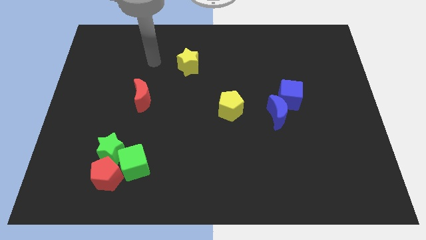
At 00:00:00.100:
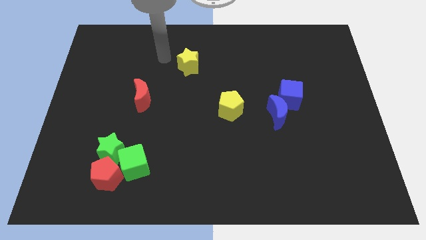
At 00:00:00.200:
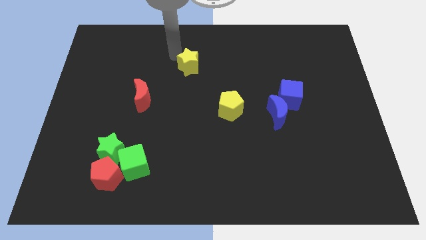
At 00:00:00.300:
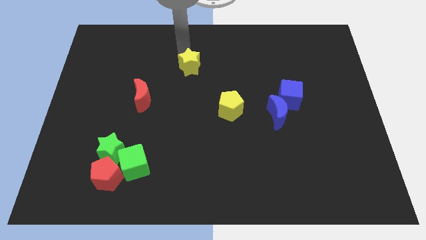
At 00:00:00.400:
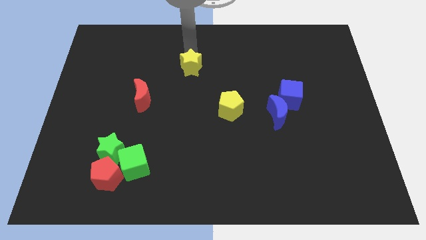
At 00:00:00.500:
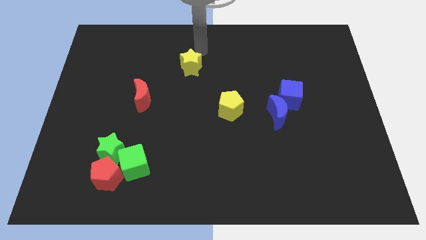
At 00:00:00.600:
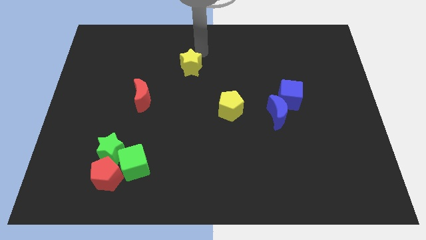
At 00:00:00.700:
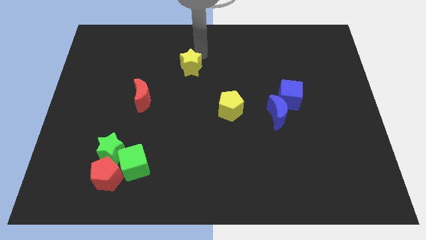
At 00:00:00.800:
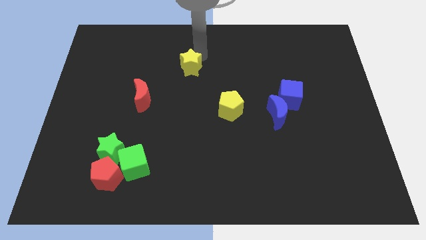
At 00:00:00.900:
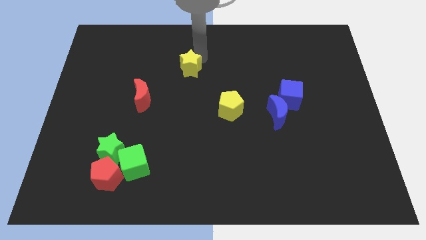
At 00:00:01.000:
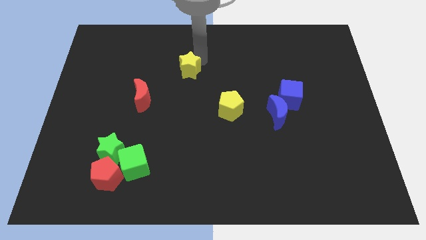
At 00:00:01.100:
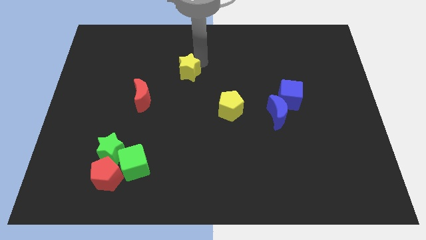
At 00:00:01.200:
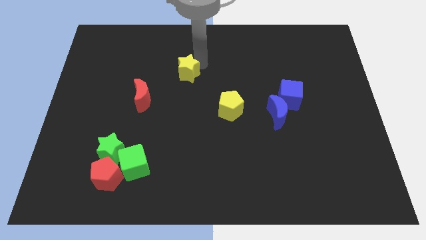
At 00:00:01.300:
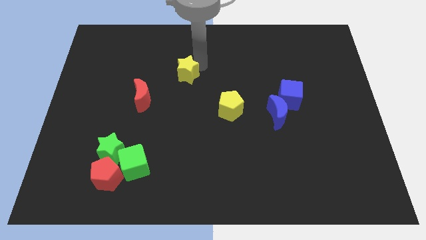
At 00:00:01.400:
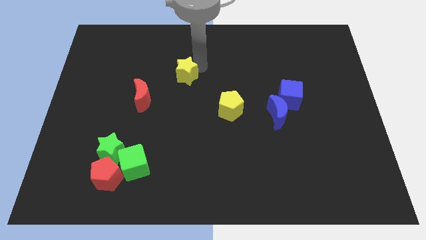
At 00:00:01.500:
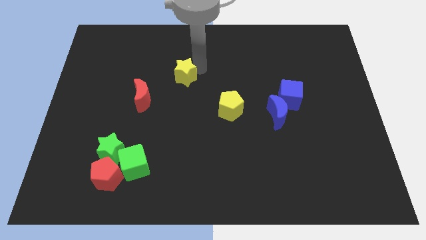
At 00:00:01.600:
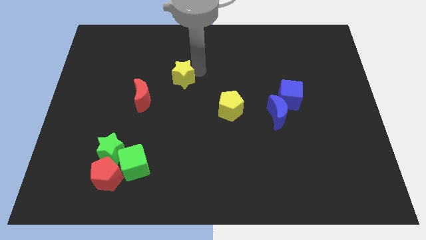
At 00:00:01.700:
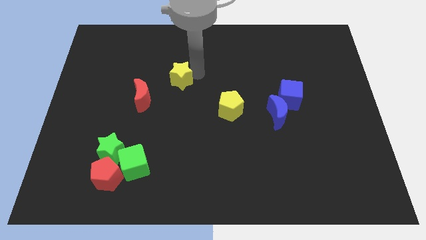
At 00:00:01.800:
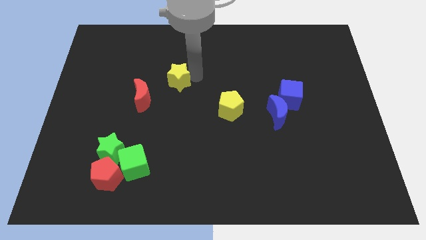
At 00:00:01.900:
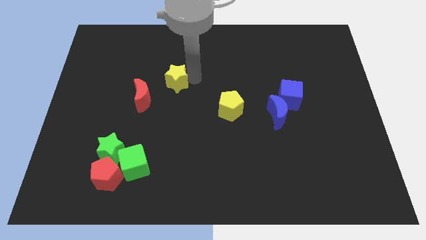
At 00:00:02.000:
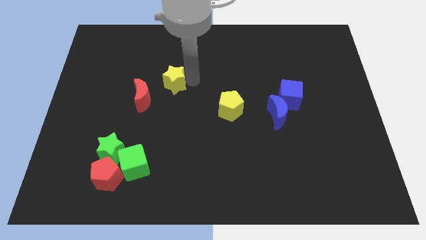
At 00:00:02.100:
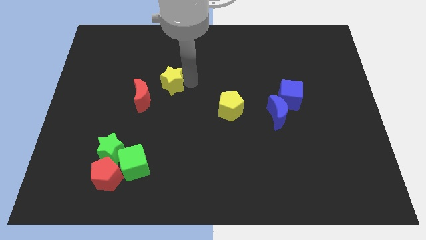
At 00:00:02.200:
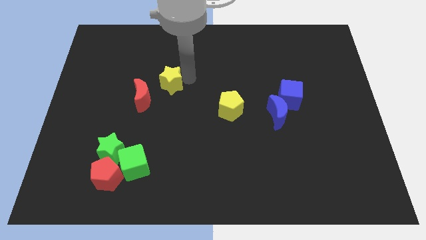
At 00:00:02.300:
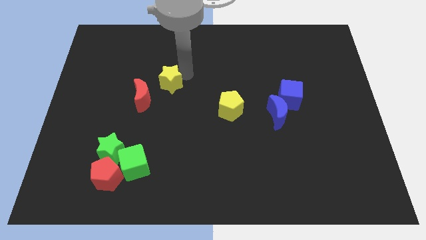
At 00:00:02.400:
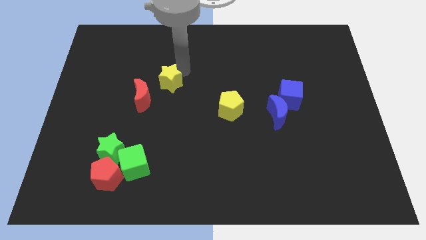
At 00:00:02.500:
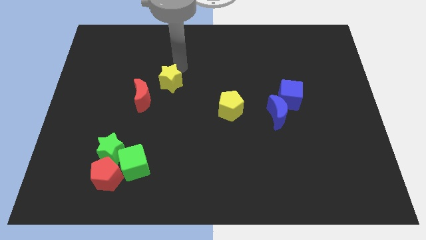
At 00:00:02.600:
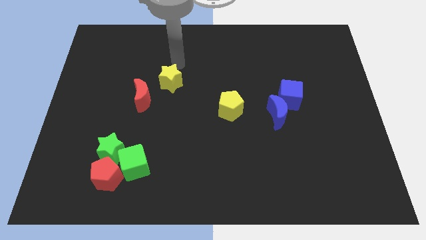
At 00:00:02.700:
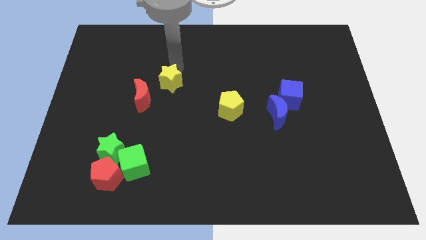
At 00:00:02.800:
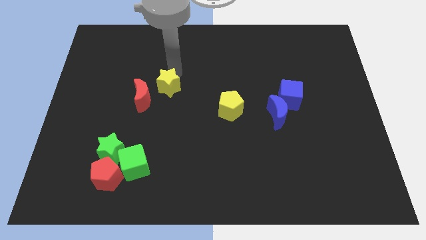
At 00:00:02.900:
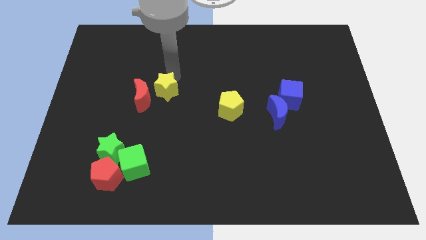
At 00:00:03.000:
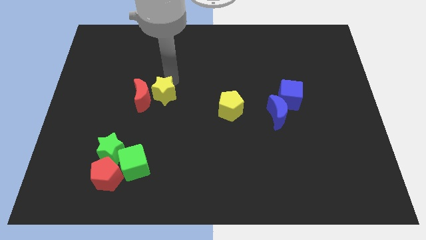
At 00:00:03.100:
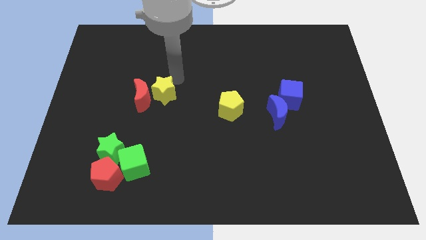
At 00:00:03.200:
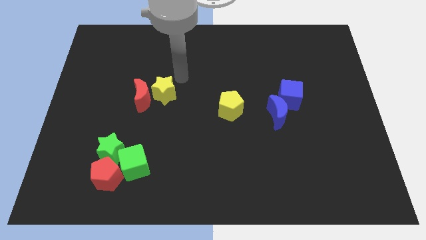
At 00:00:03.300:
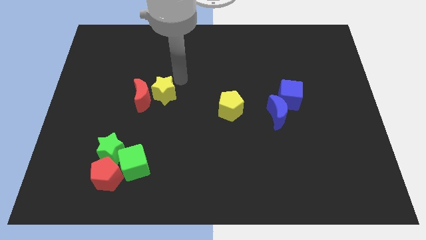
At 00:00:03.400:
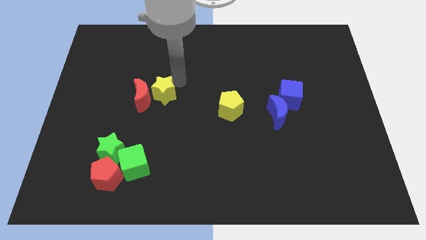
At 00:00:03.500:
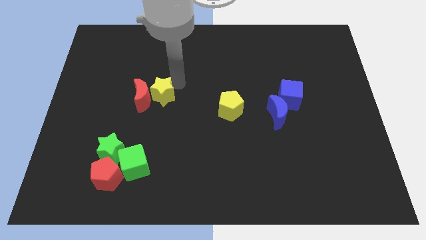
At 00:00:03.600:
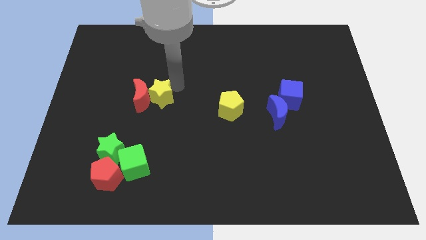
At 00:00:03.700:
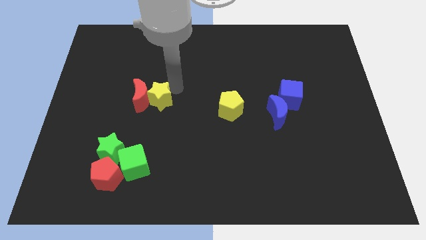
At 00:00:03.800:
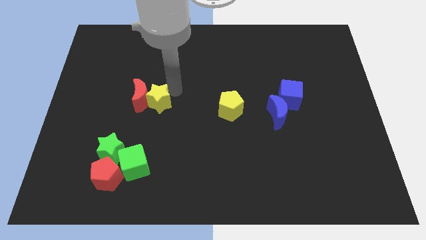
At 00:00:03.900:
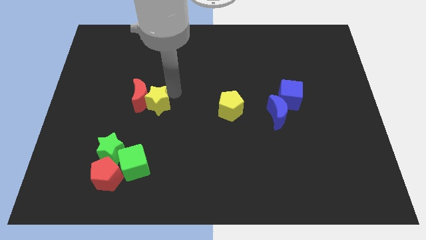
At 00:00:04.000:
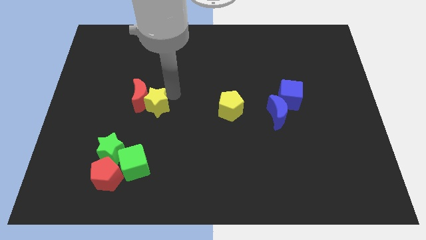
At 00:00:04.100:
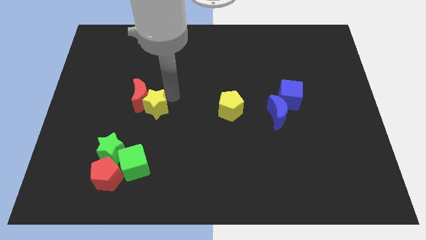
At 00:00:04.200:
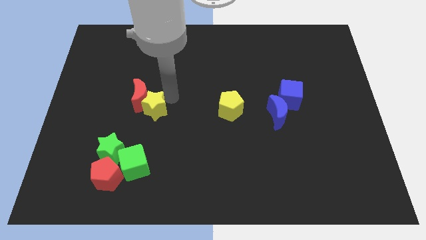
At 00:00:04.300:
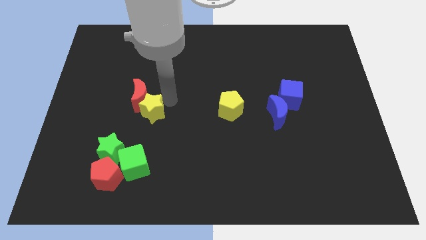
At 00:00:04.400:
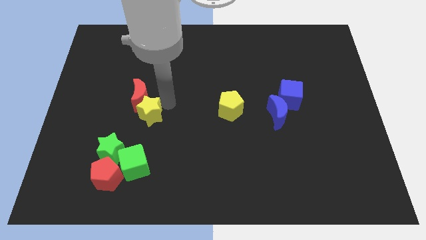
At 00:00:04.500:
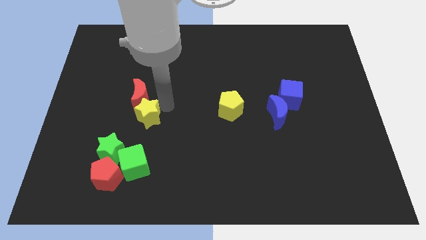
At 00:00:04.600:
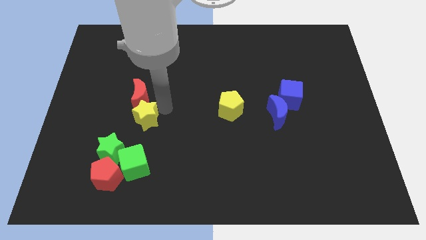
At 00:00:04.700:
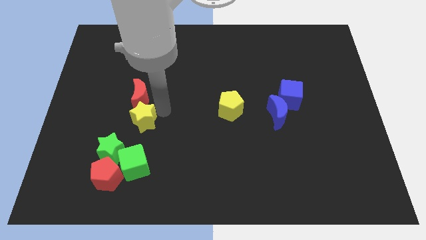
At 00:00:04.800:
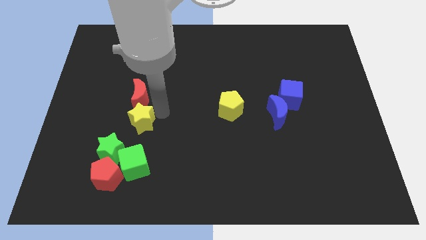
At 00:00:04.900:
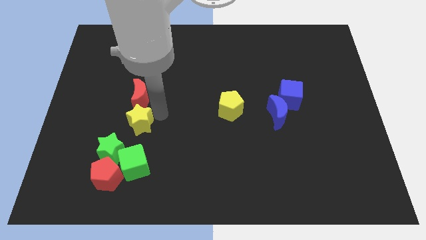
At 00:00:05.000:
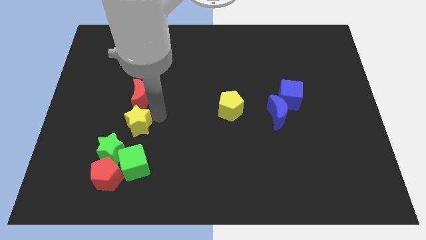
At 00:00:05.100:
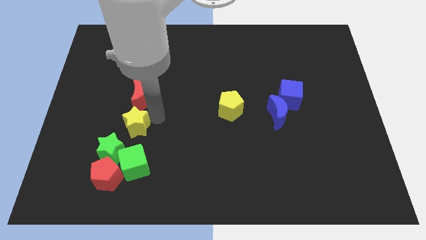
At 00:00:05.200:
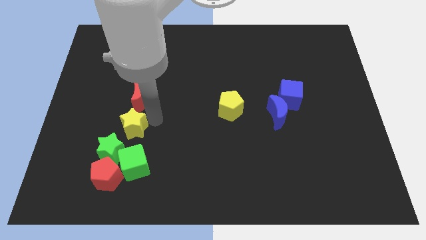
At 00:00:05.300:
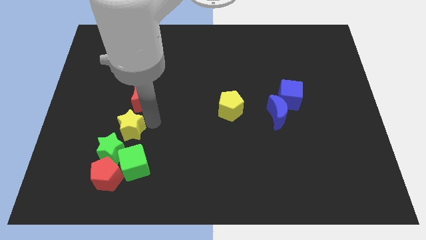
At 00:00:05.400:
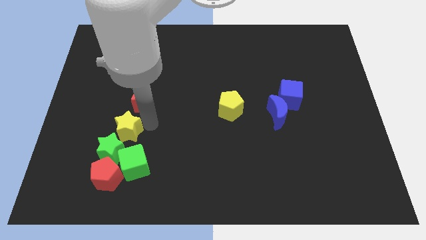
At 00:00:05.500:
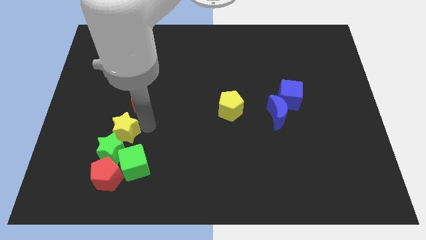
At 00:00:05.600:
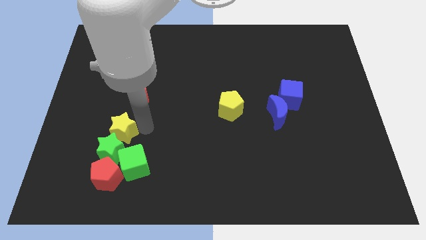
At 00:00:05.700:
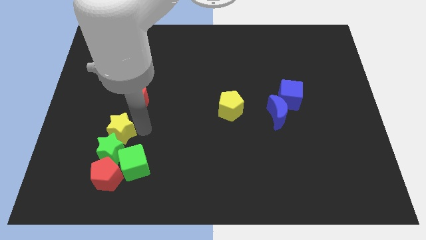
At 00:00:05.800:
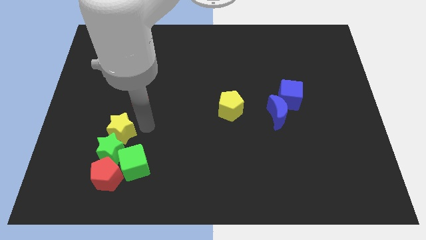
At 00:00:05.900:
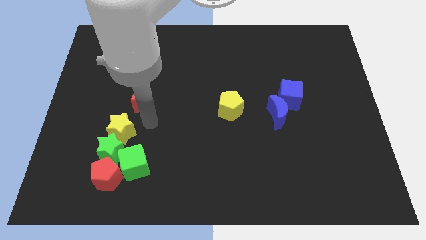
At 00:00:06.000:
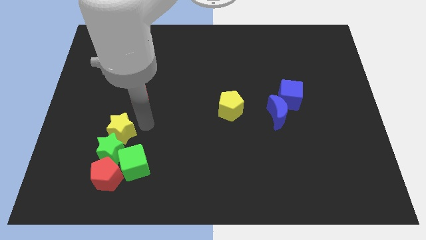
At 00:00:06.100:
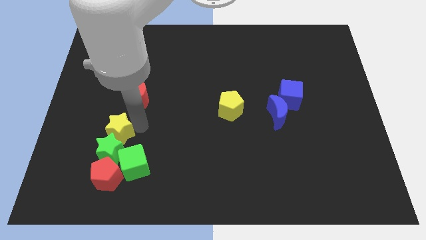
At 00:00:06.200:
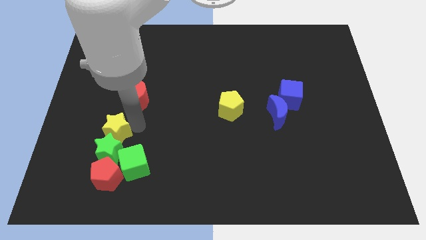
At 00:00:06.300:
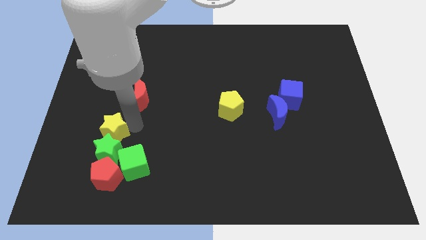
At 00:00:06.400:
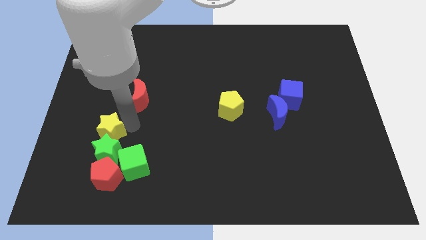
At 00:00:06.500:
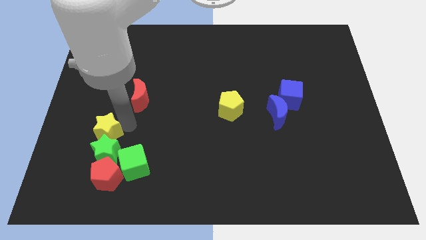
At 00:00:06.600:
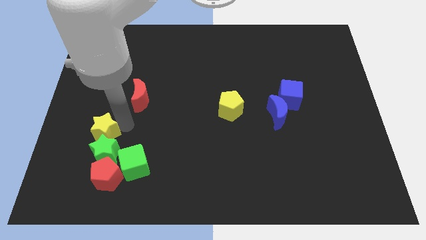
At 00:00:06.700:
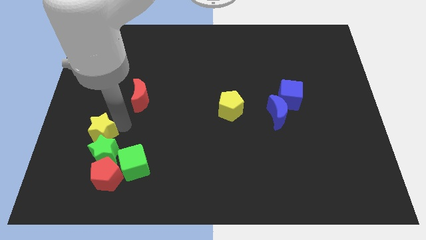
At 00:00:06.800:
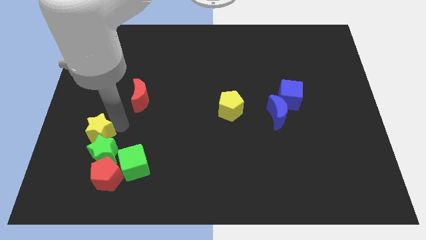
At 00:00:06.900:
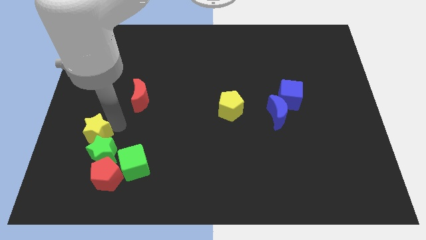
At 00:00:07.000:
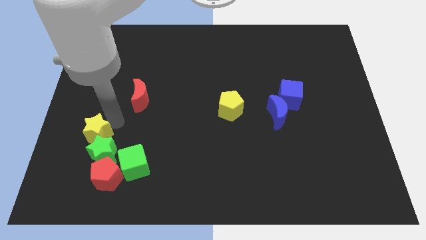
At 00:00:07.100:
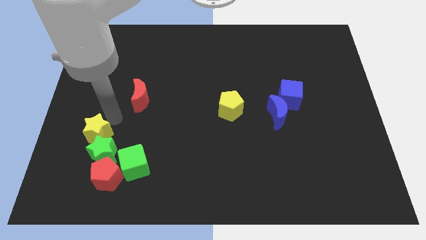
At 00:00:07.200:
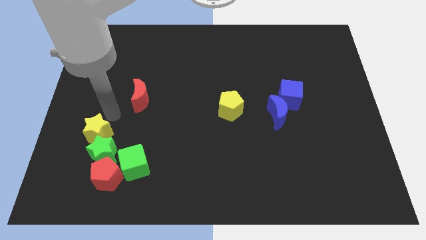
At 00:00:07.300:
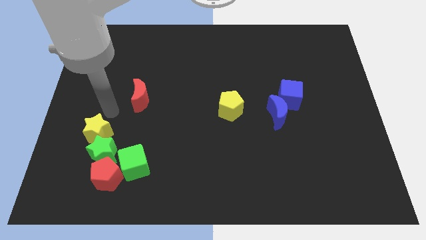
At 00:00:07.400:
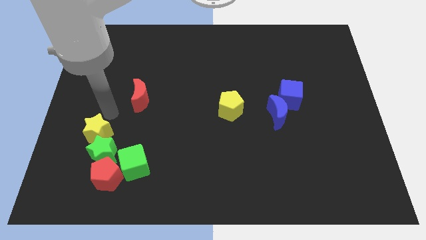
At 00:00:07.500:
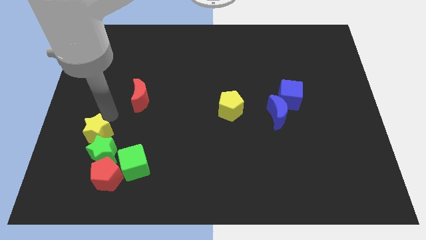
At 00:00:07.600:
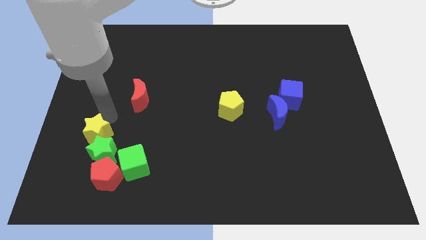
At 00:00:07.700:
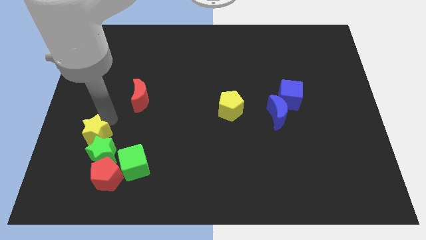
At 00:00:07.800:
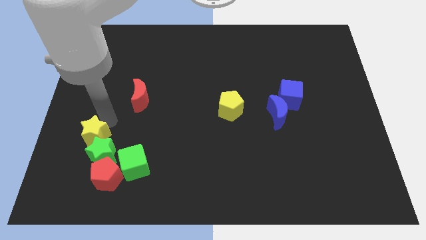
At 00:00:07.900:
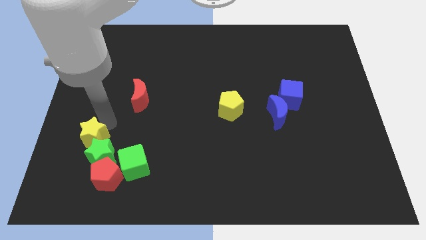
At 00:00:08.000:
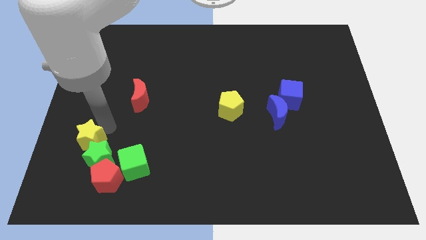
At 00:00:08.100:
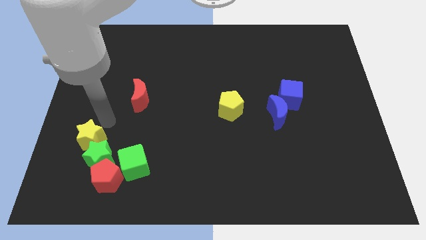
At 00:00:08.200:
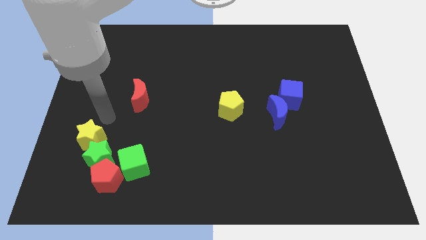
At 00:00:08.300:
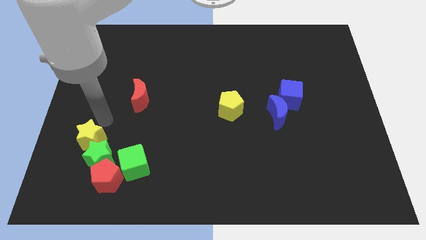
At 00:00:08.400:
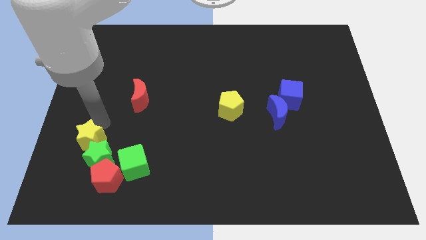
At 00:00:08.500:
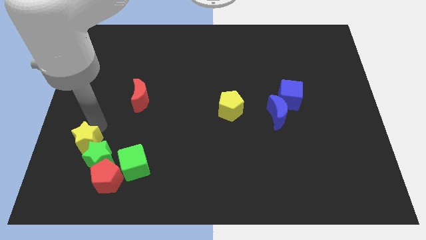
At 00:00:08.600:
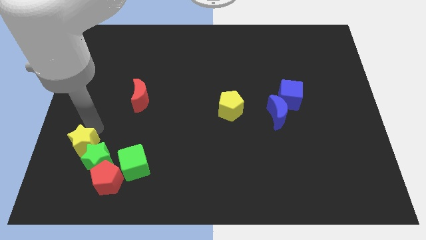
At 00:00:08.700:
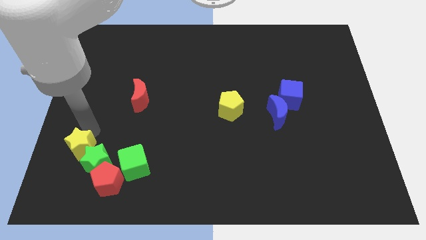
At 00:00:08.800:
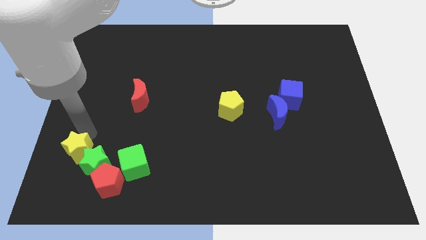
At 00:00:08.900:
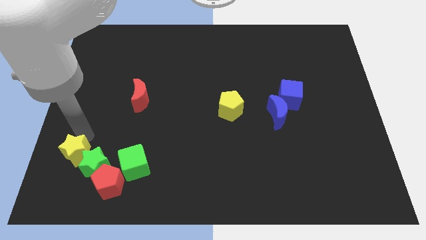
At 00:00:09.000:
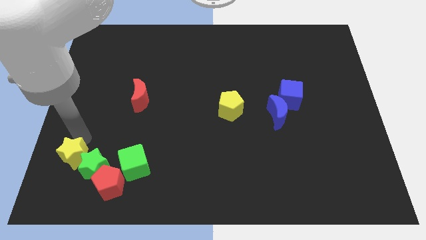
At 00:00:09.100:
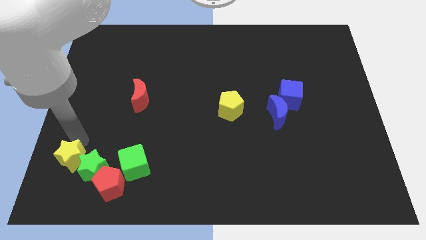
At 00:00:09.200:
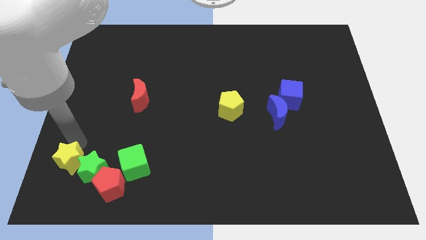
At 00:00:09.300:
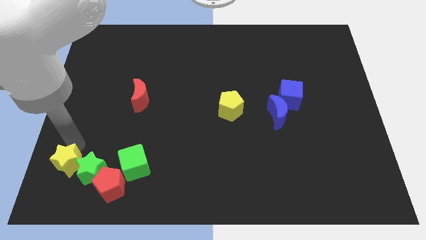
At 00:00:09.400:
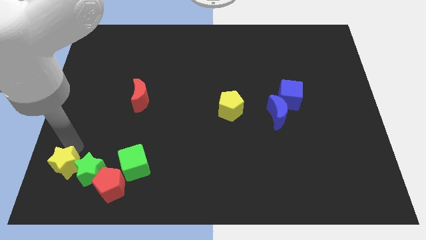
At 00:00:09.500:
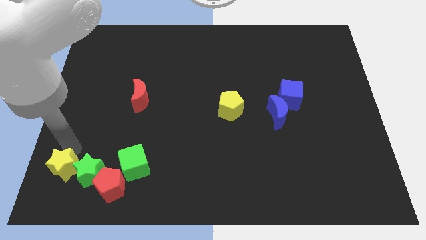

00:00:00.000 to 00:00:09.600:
push the yellow star to the bottom left of the board
